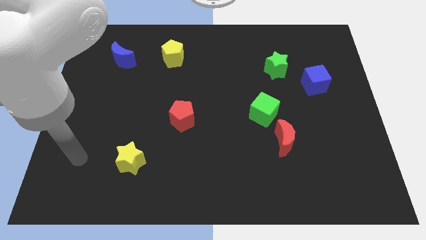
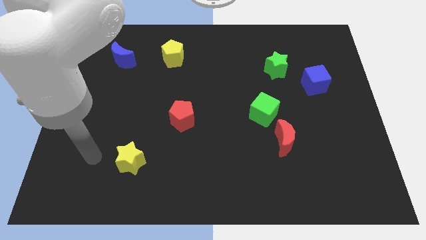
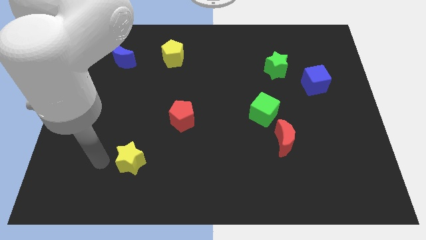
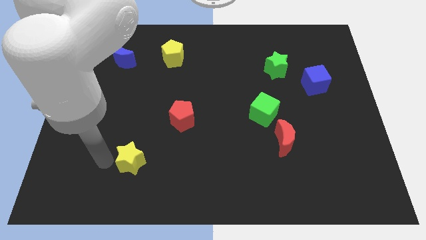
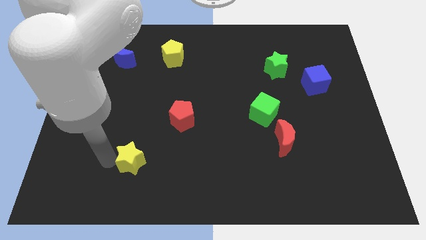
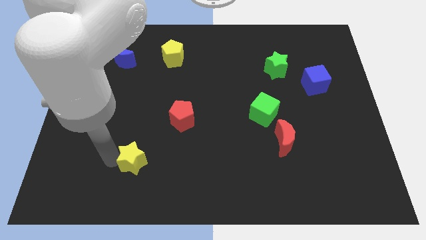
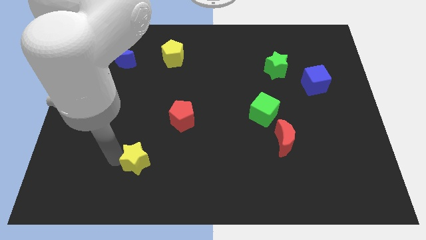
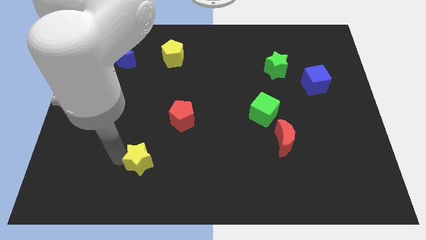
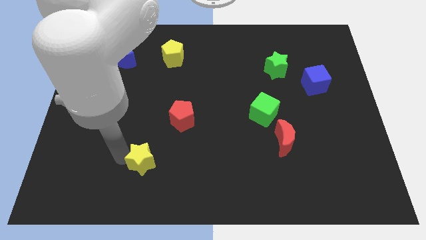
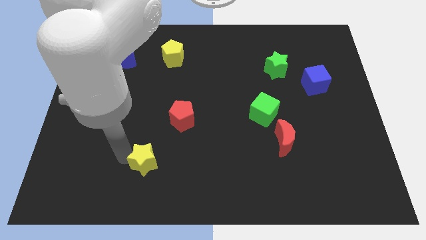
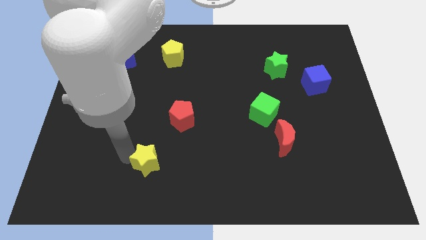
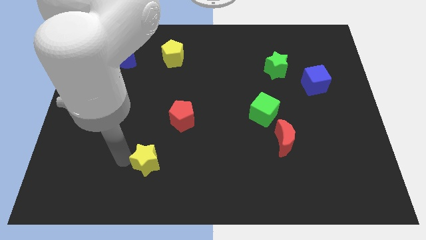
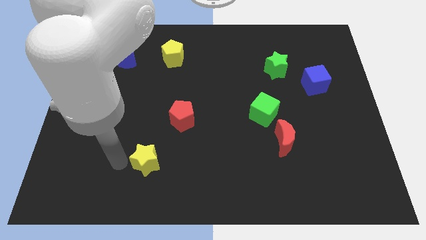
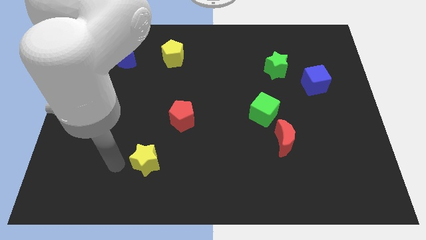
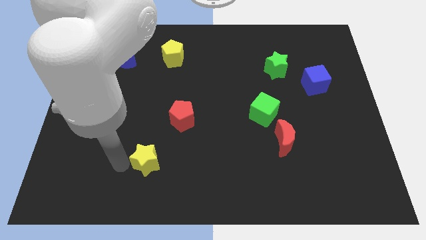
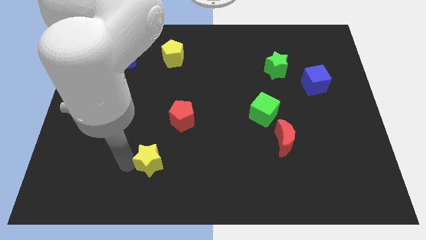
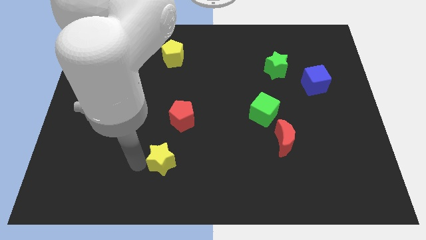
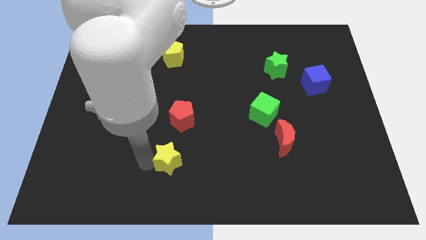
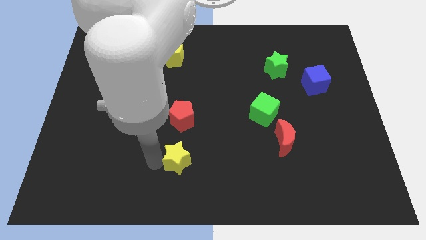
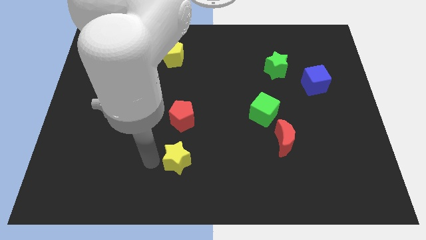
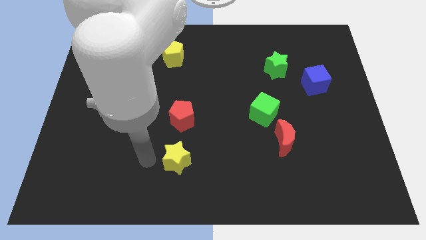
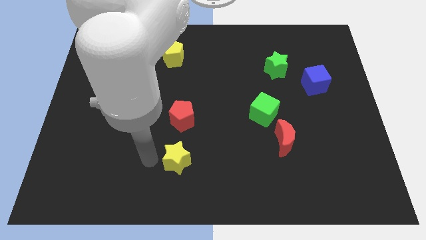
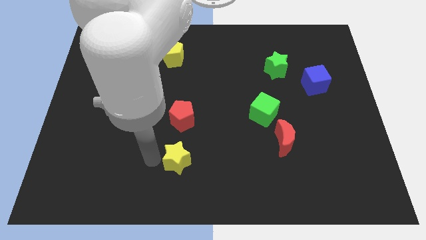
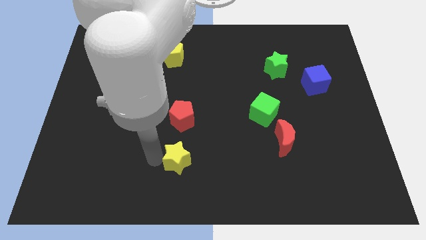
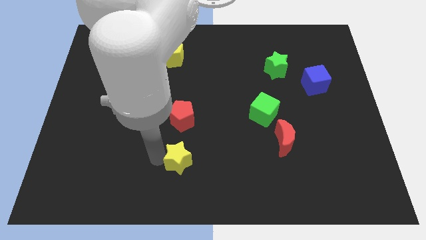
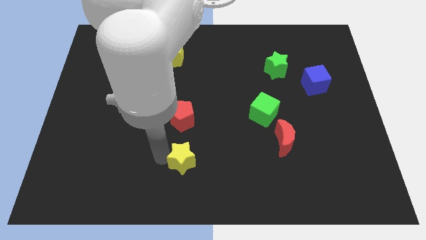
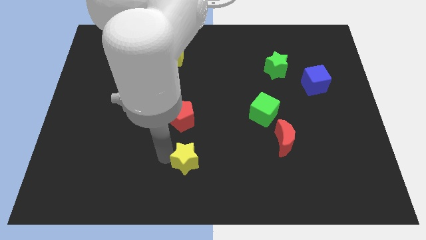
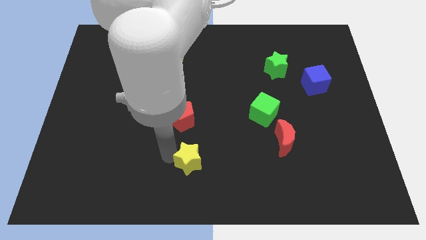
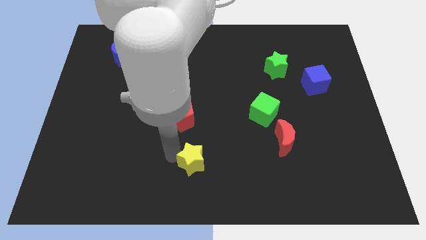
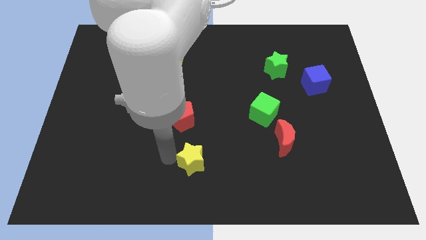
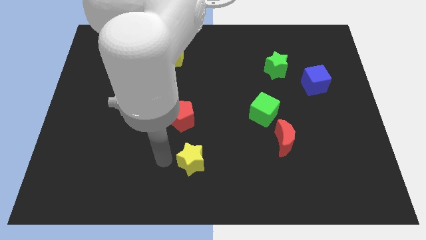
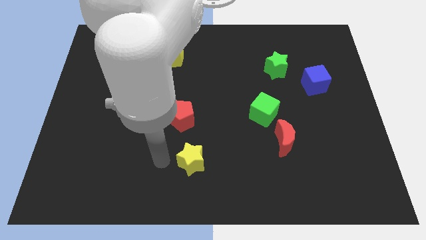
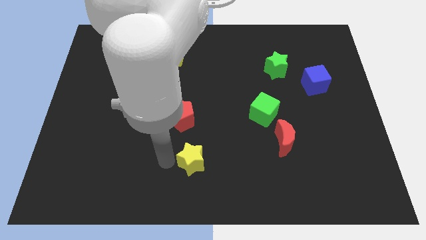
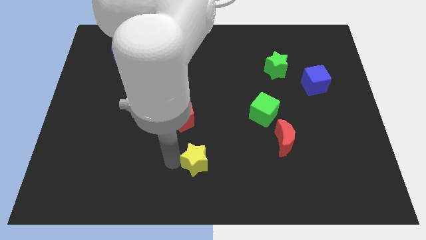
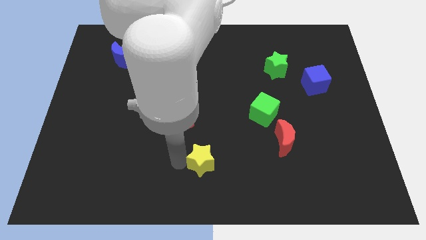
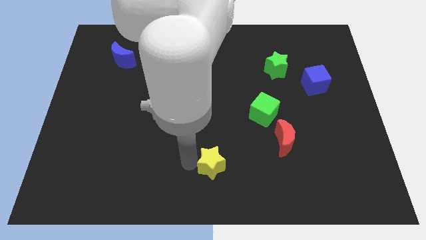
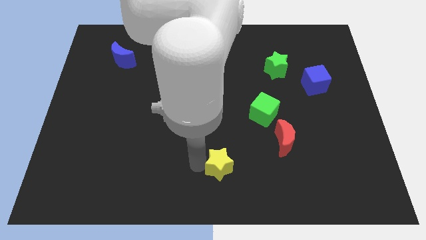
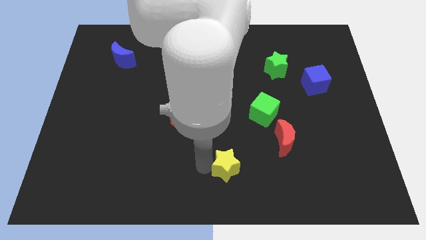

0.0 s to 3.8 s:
move the yellow star to the right

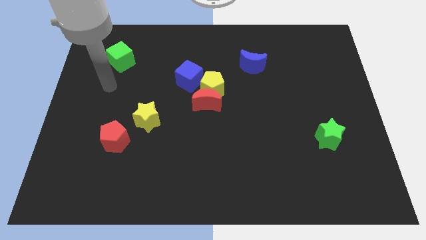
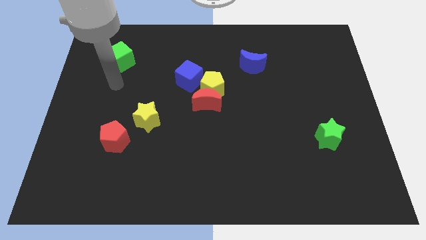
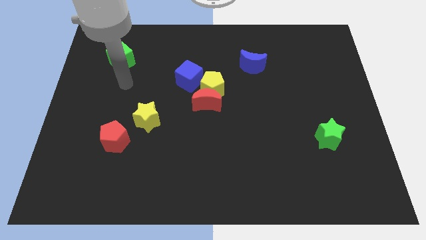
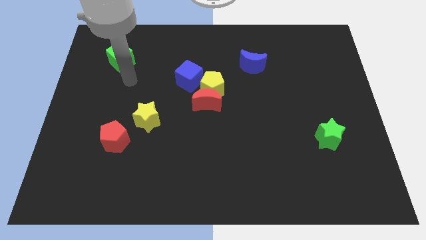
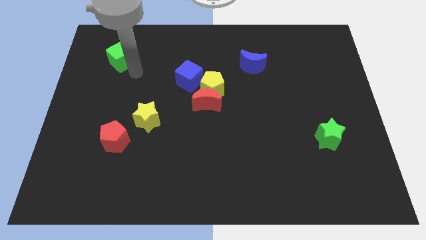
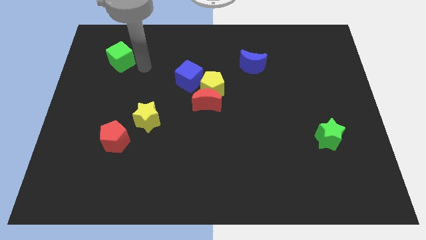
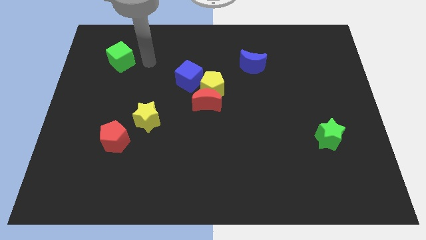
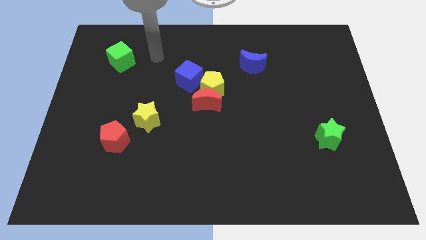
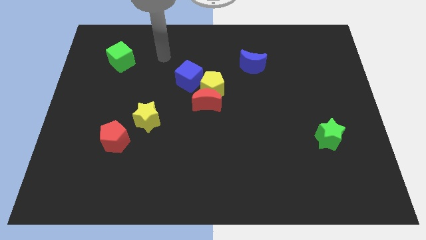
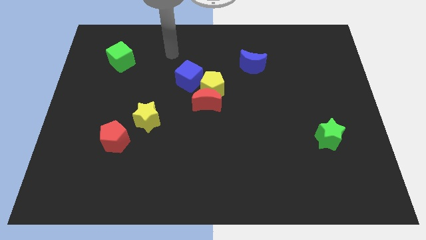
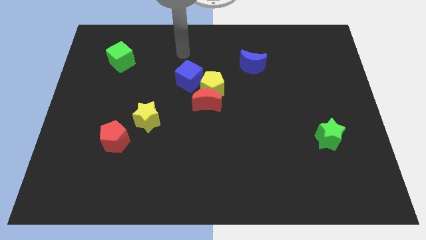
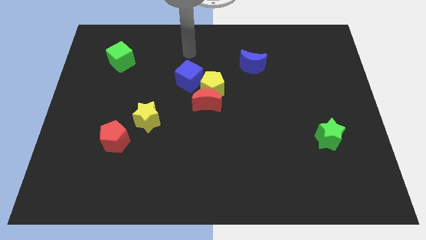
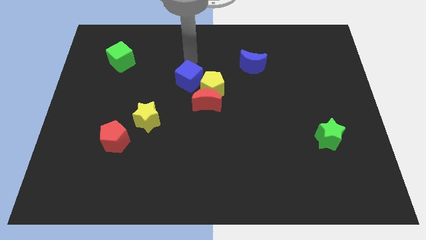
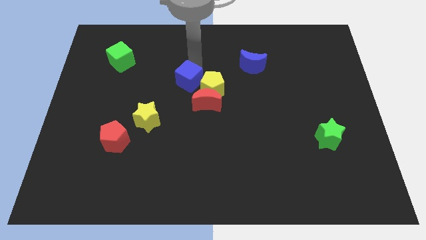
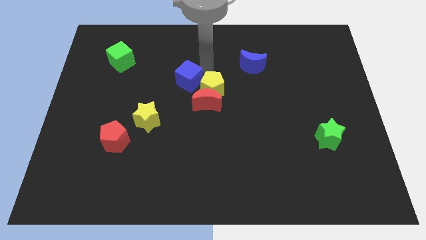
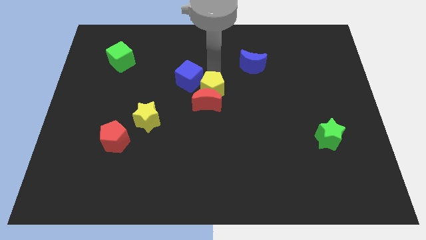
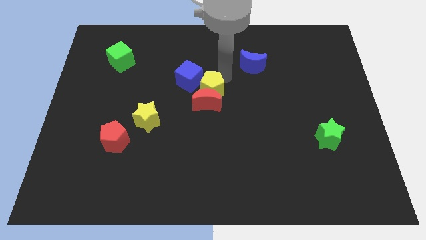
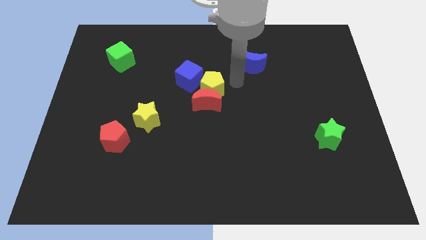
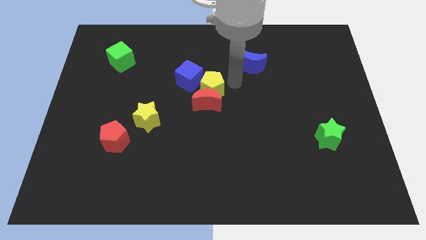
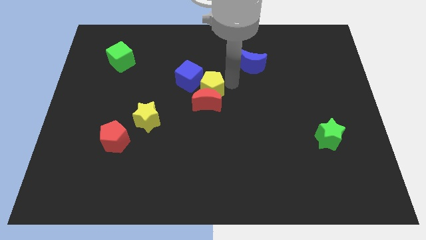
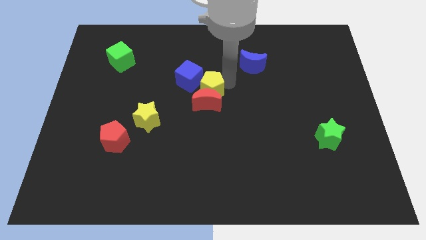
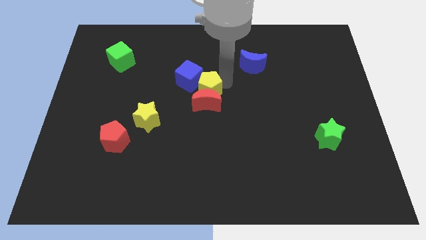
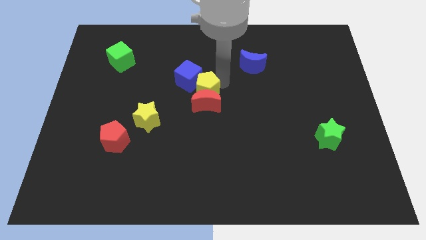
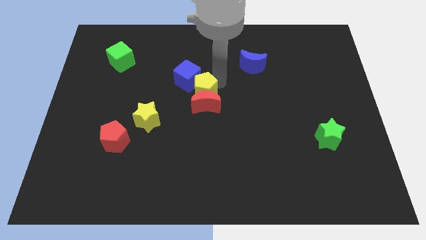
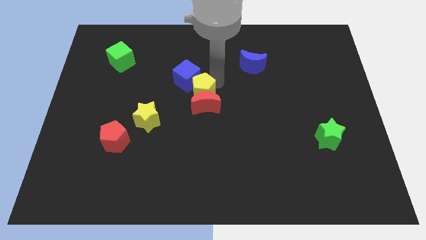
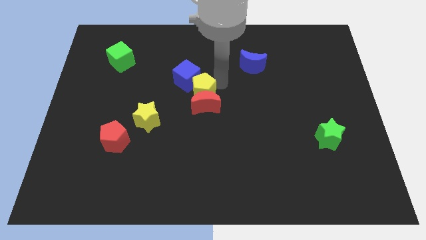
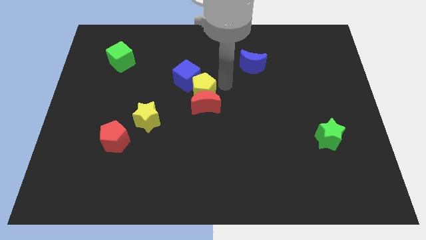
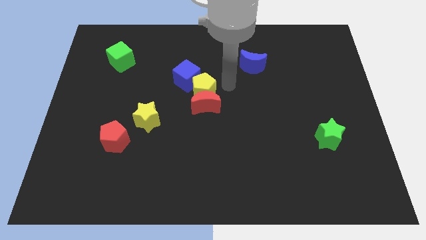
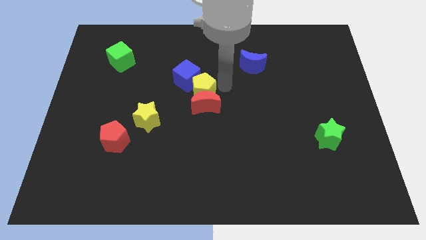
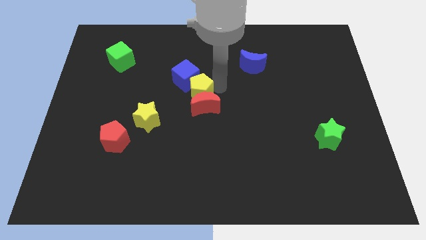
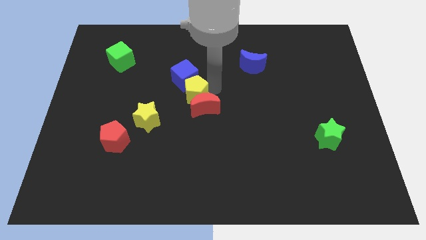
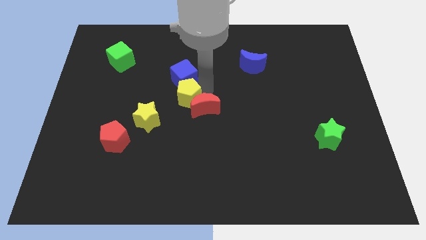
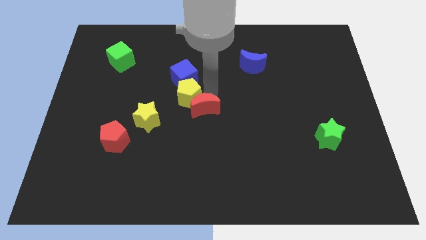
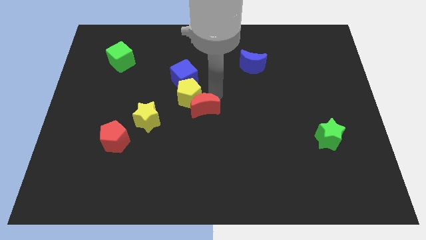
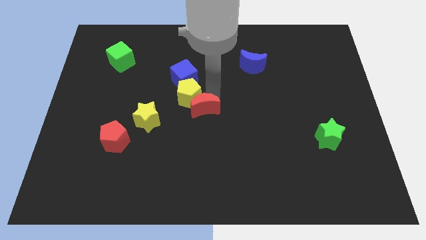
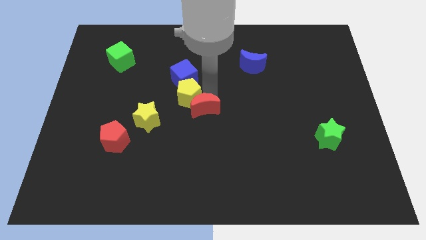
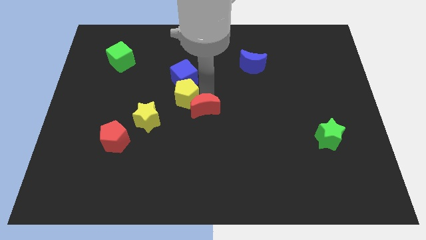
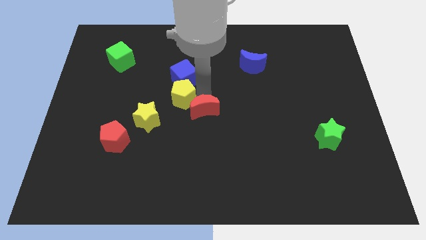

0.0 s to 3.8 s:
move the yellow pentagon to the left slightly
